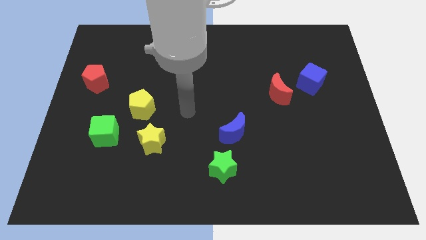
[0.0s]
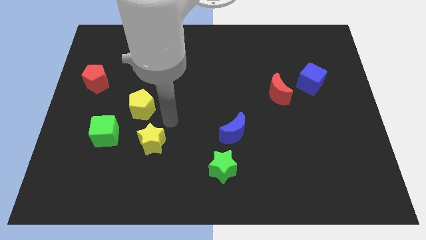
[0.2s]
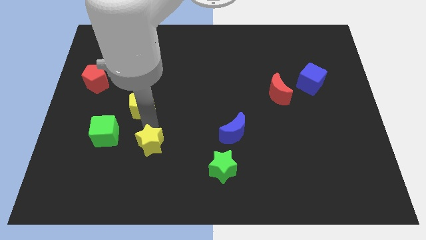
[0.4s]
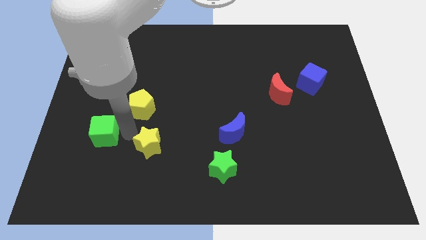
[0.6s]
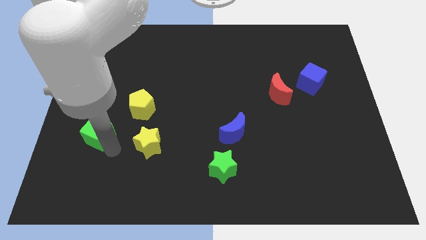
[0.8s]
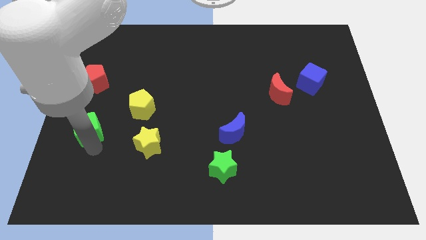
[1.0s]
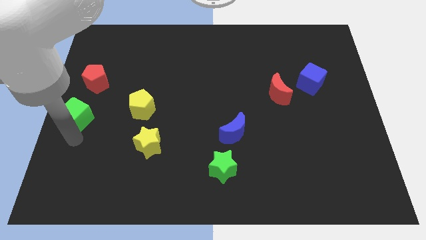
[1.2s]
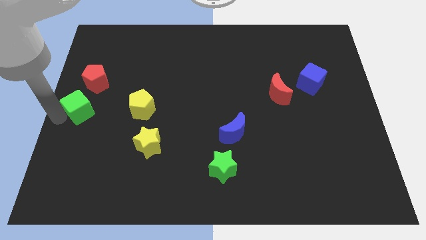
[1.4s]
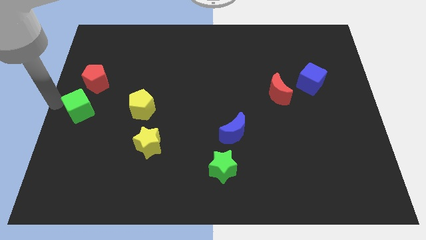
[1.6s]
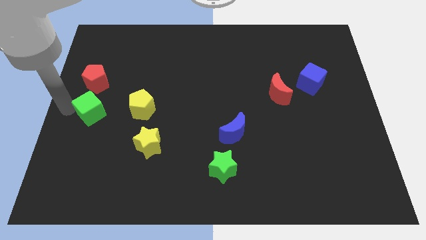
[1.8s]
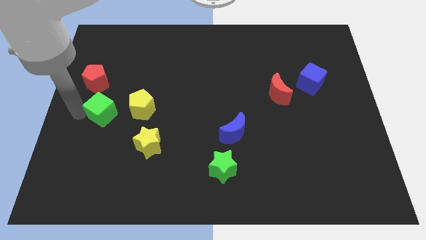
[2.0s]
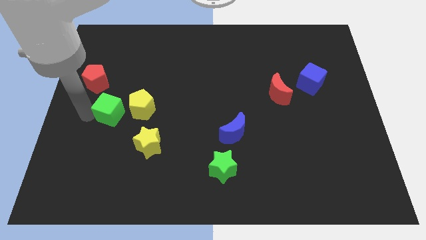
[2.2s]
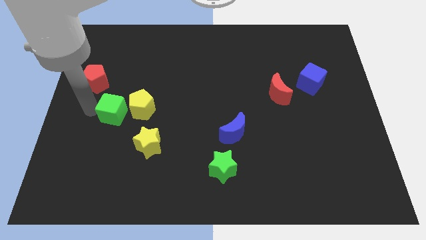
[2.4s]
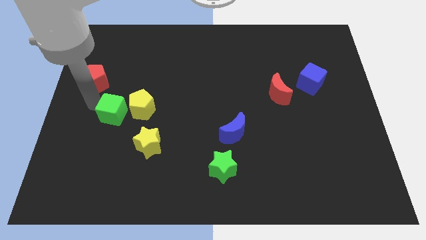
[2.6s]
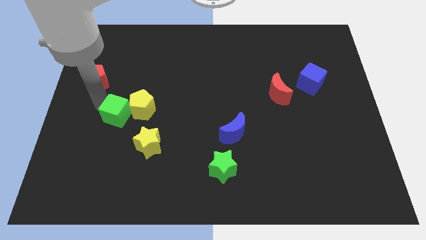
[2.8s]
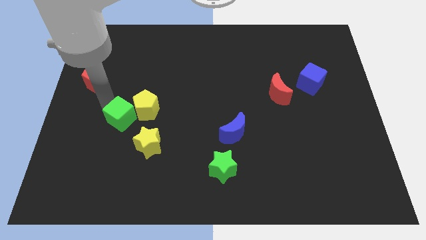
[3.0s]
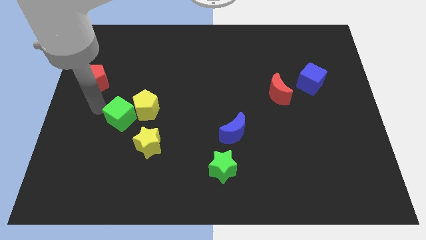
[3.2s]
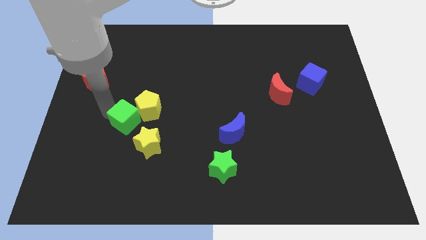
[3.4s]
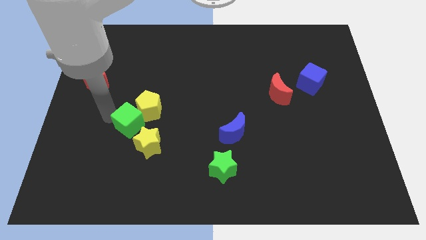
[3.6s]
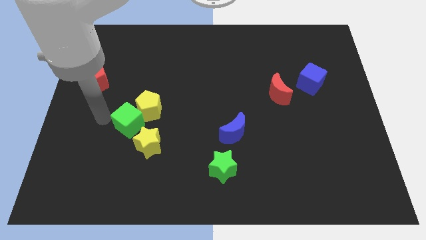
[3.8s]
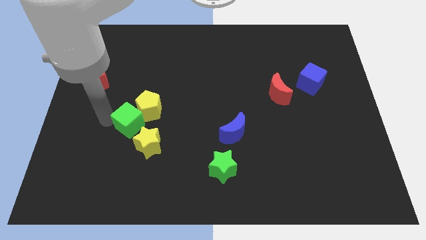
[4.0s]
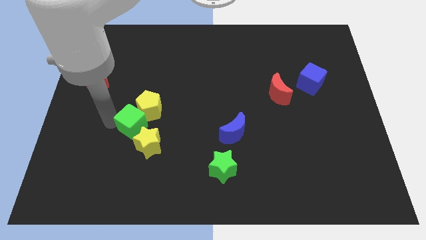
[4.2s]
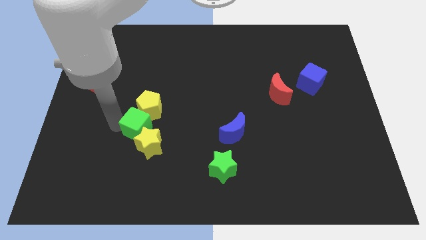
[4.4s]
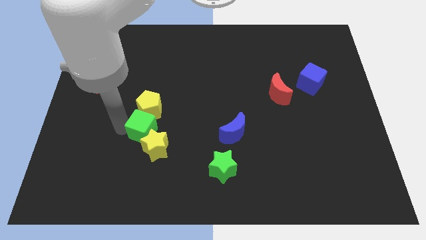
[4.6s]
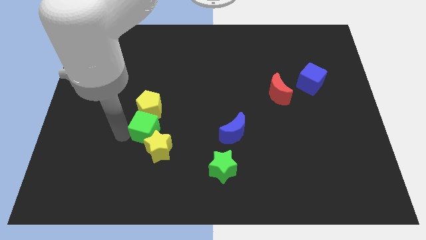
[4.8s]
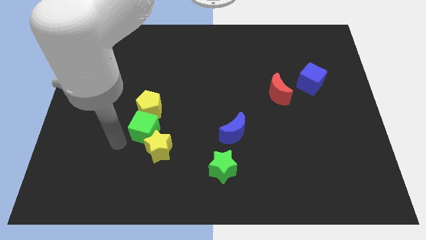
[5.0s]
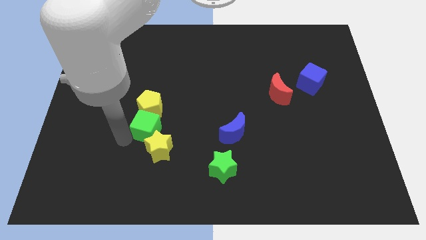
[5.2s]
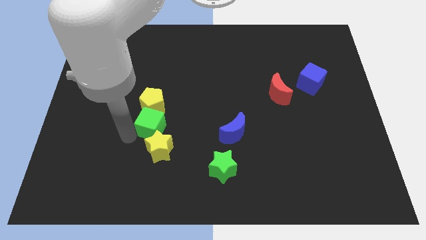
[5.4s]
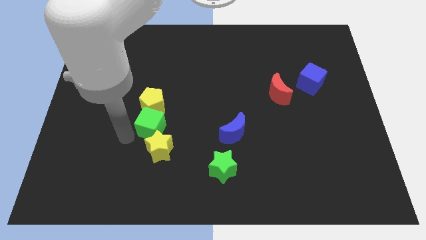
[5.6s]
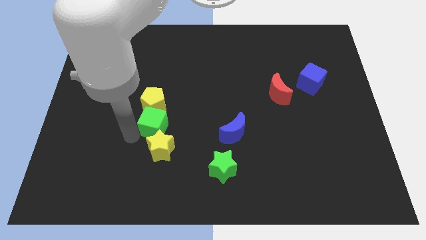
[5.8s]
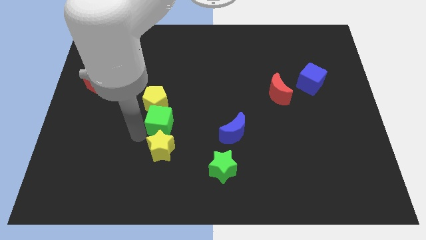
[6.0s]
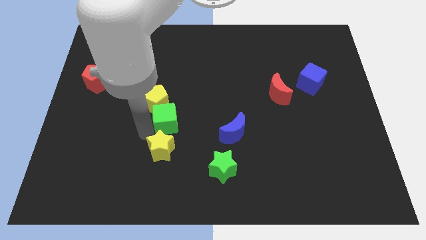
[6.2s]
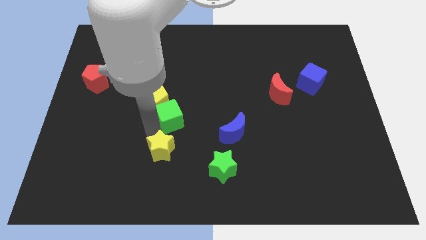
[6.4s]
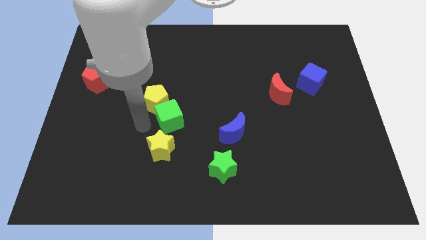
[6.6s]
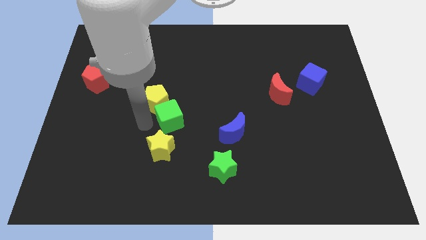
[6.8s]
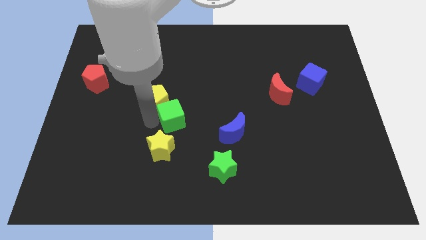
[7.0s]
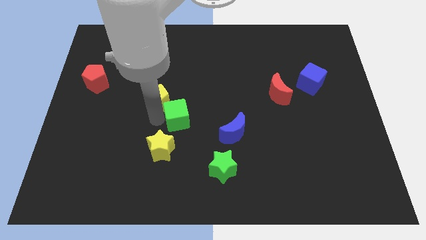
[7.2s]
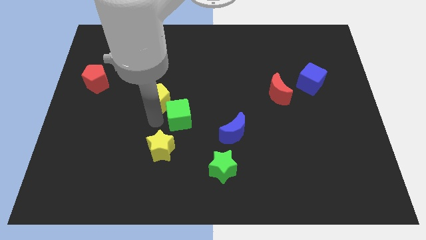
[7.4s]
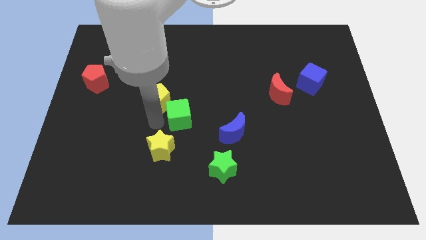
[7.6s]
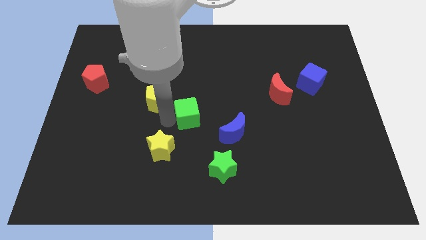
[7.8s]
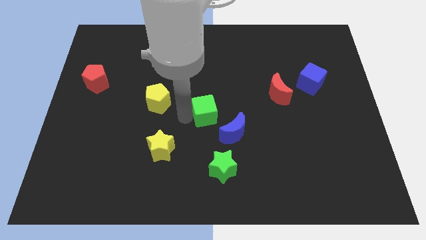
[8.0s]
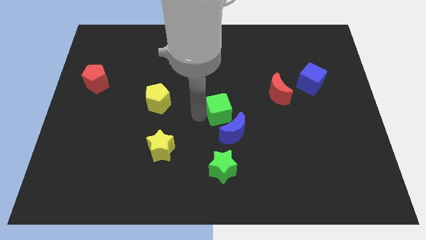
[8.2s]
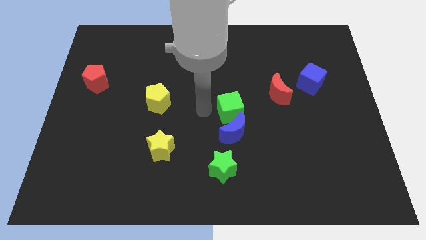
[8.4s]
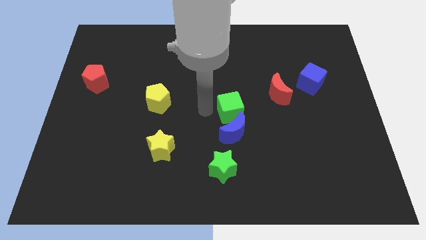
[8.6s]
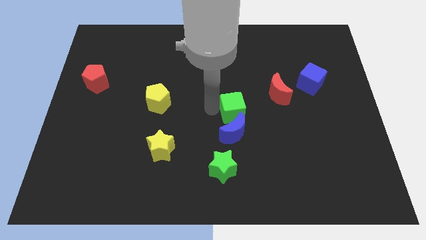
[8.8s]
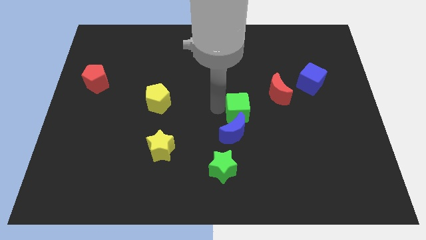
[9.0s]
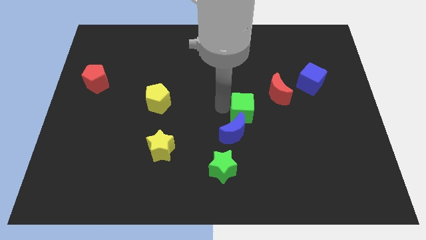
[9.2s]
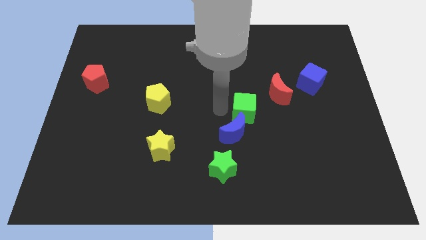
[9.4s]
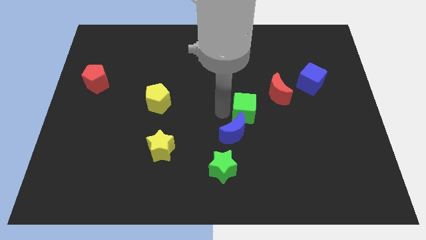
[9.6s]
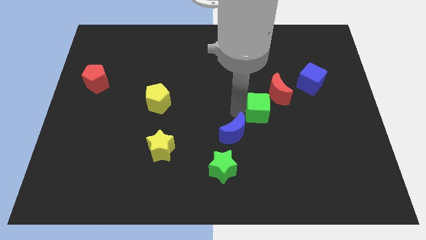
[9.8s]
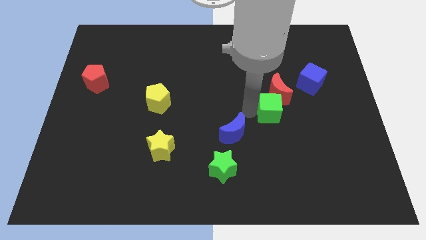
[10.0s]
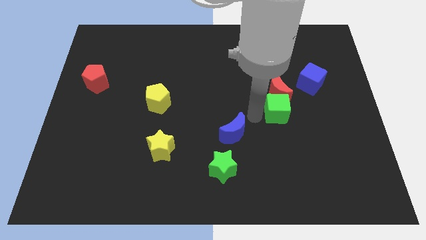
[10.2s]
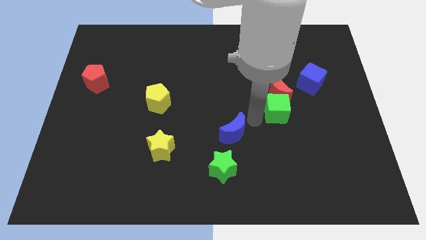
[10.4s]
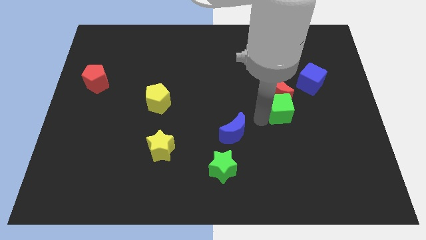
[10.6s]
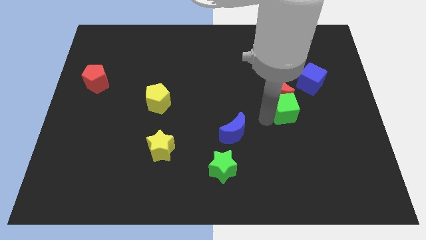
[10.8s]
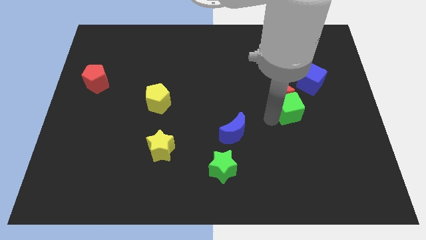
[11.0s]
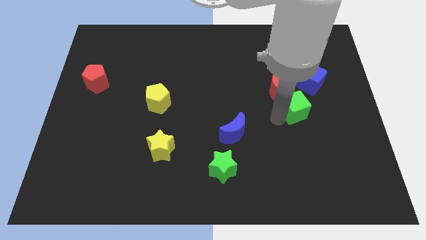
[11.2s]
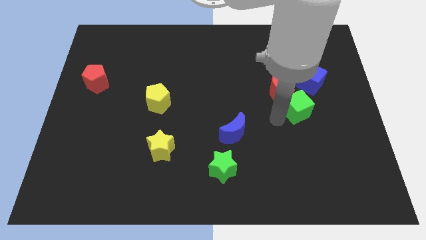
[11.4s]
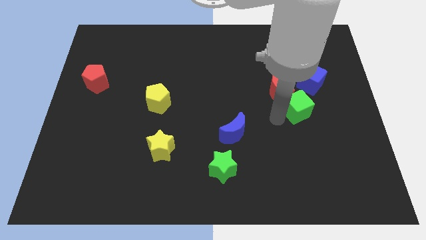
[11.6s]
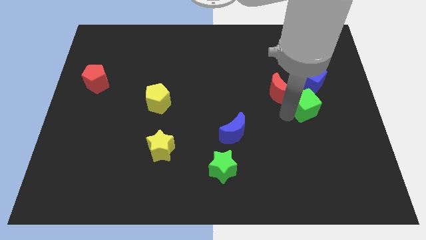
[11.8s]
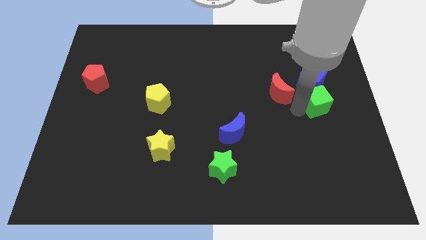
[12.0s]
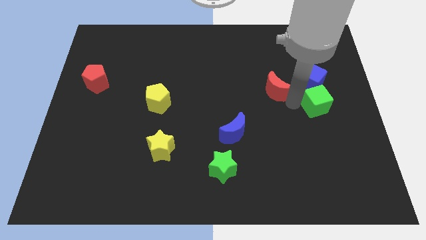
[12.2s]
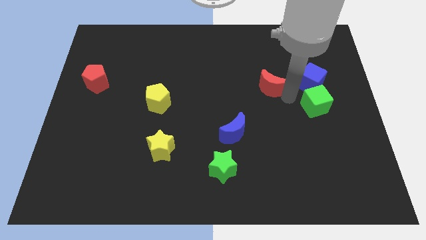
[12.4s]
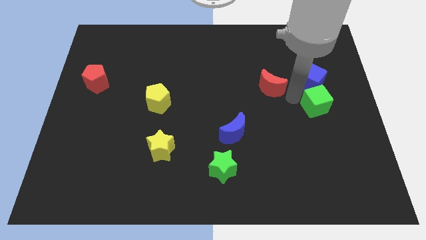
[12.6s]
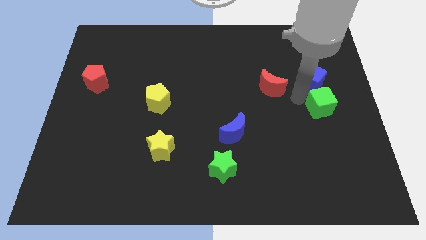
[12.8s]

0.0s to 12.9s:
push the green cube to the center right

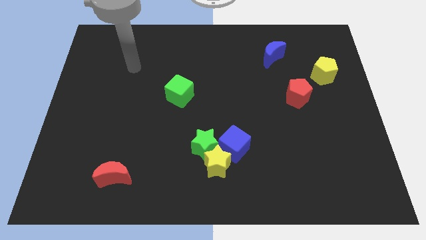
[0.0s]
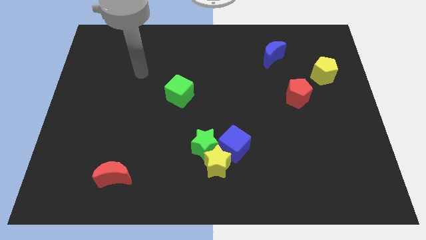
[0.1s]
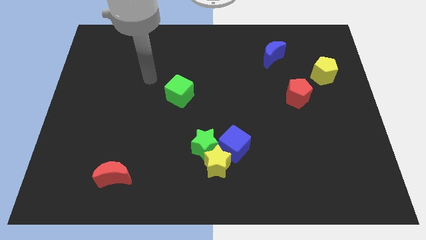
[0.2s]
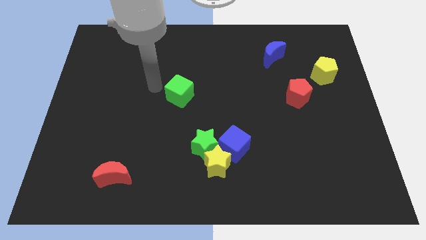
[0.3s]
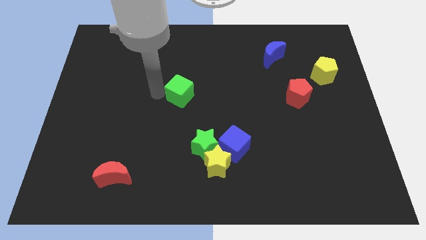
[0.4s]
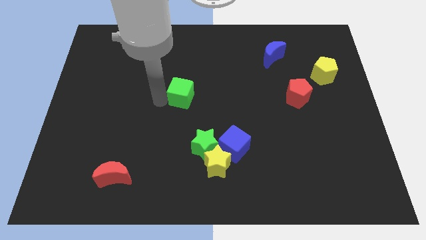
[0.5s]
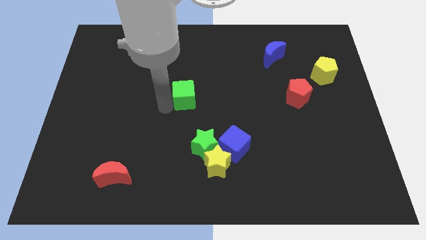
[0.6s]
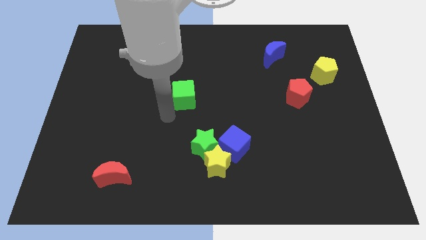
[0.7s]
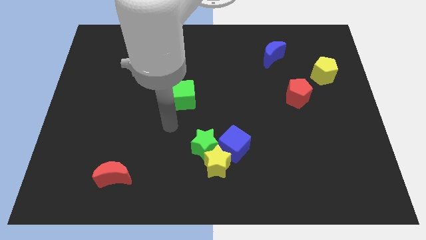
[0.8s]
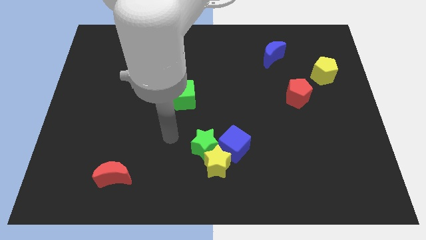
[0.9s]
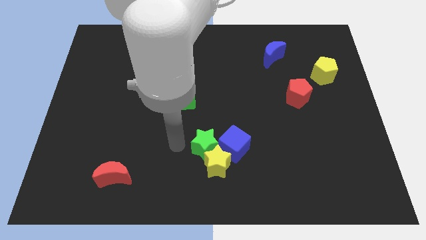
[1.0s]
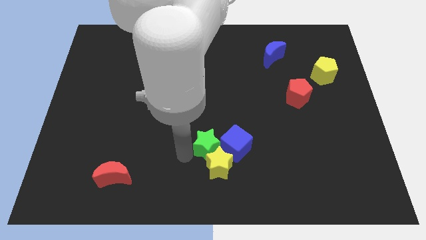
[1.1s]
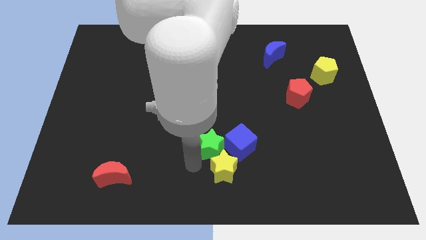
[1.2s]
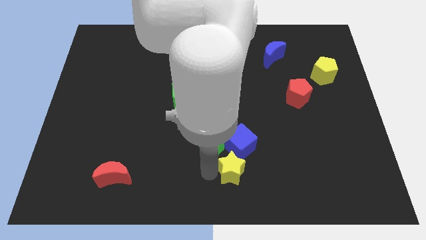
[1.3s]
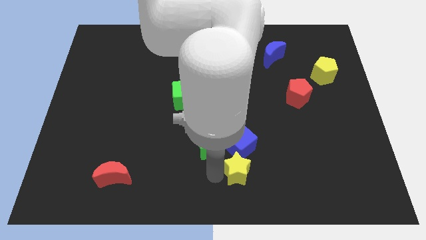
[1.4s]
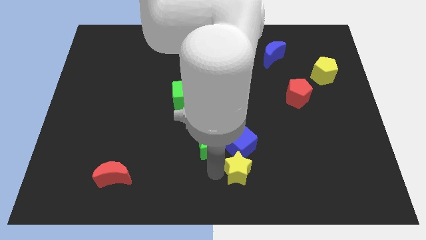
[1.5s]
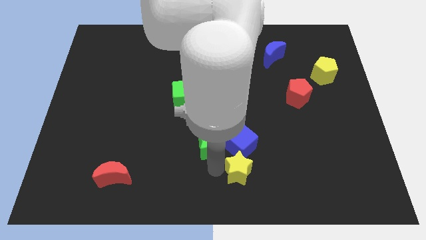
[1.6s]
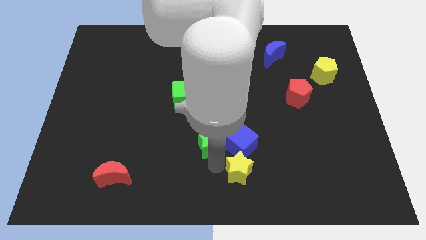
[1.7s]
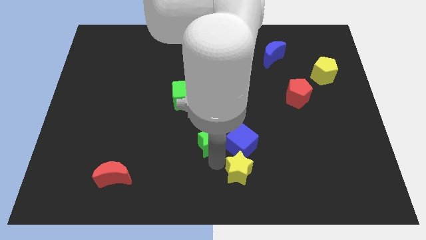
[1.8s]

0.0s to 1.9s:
push the green star to the center of the board
